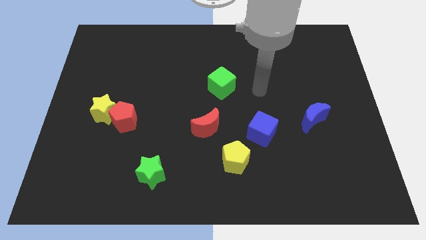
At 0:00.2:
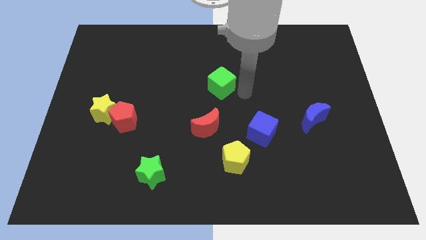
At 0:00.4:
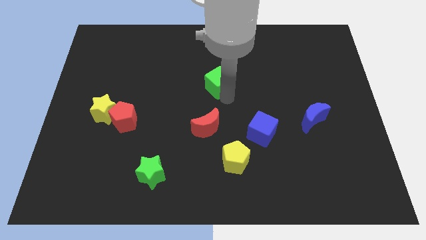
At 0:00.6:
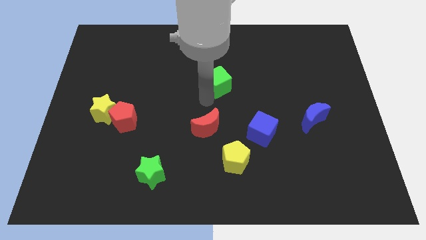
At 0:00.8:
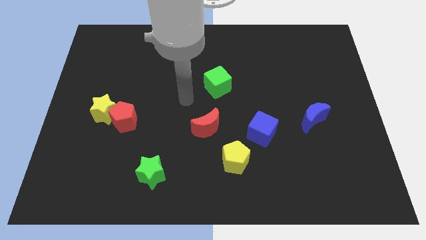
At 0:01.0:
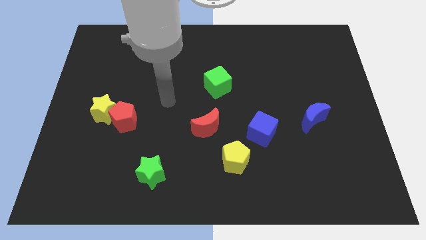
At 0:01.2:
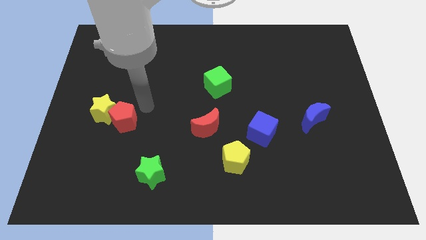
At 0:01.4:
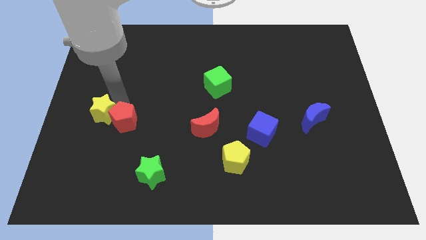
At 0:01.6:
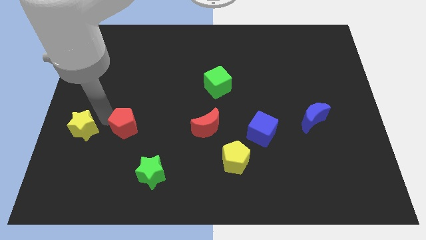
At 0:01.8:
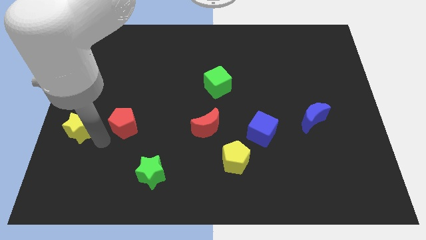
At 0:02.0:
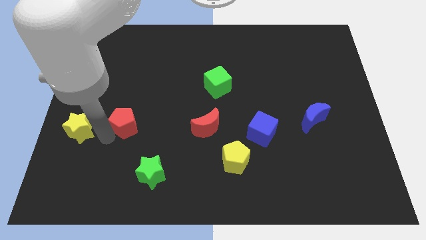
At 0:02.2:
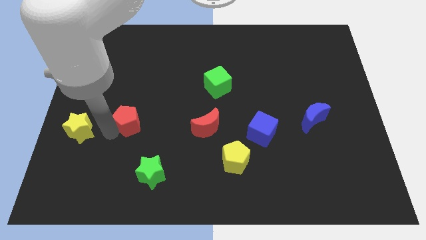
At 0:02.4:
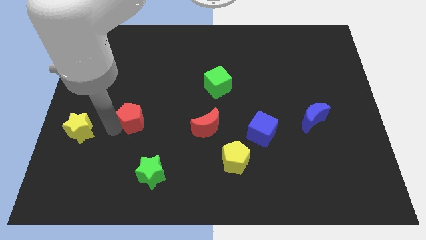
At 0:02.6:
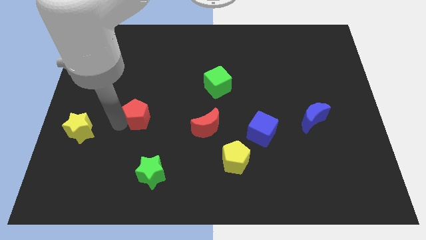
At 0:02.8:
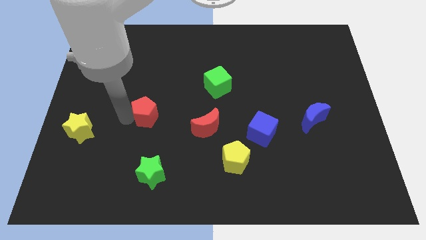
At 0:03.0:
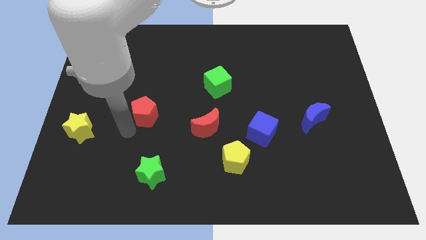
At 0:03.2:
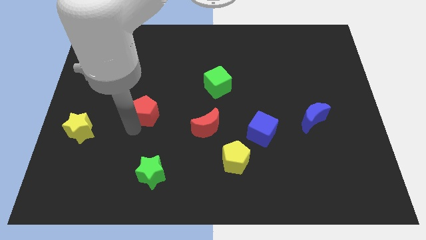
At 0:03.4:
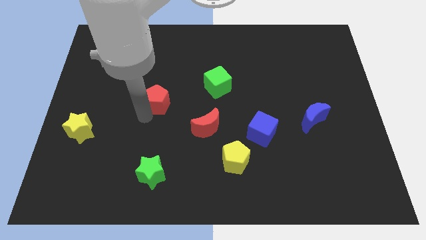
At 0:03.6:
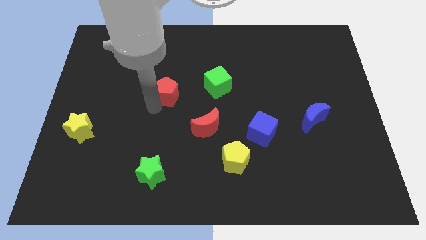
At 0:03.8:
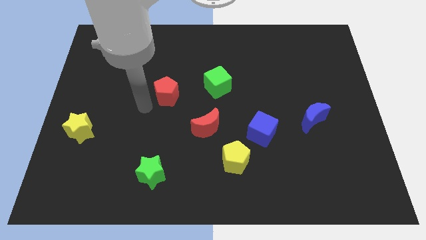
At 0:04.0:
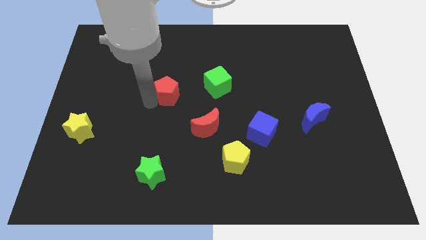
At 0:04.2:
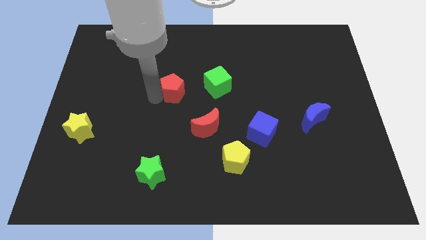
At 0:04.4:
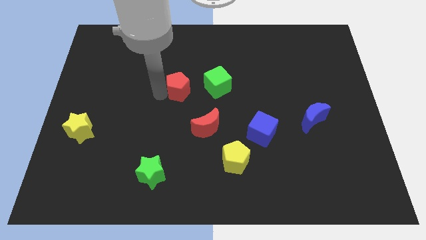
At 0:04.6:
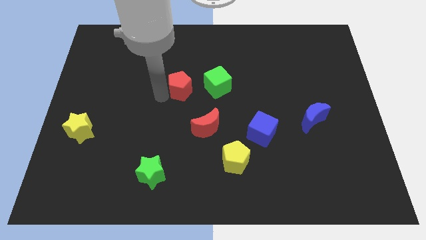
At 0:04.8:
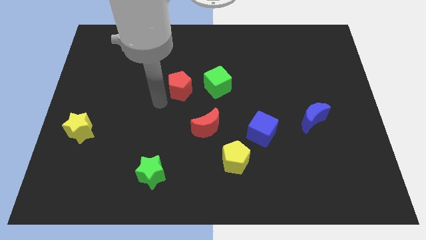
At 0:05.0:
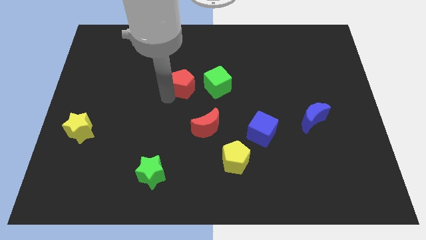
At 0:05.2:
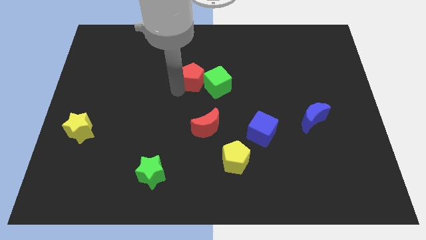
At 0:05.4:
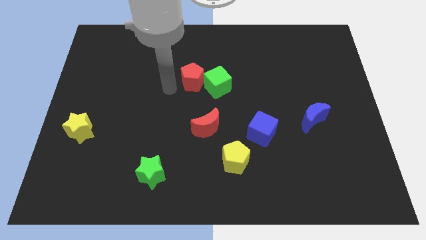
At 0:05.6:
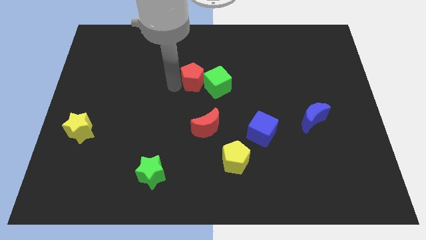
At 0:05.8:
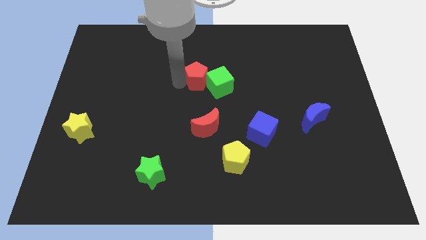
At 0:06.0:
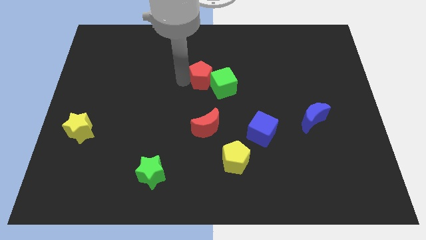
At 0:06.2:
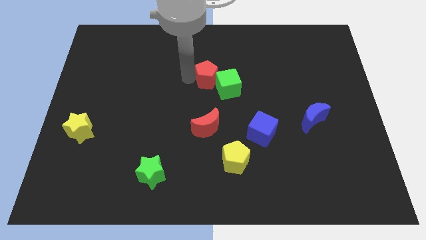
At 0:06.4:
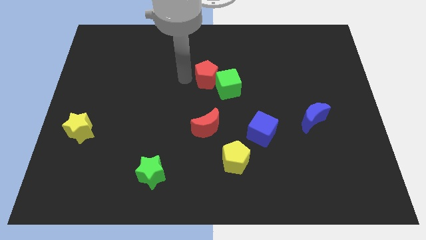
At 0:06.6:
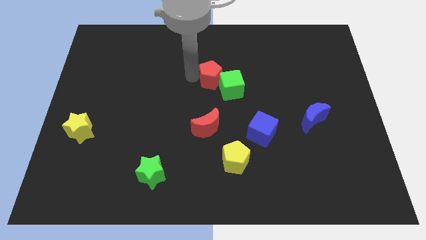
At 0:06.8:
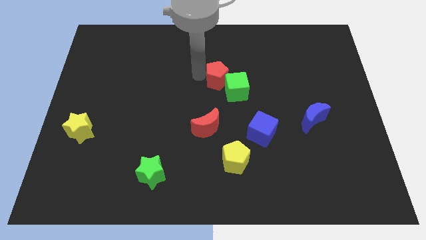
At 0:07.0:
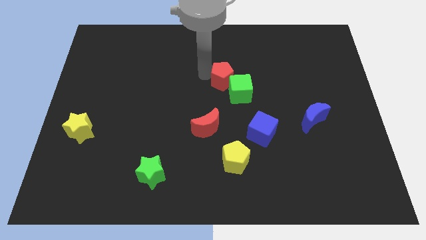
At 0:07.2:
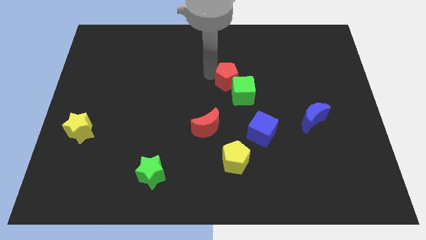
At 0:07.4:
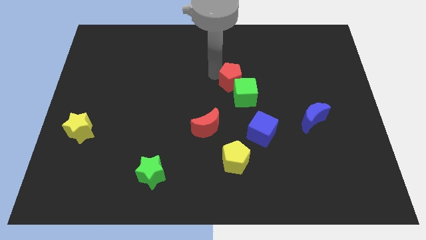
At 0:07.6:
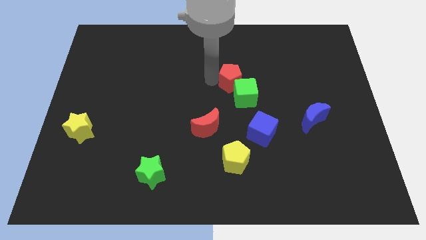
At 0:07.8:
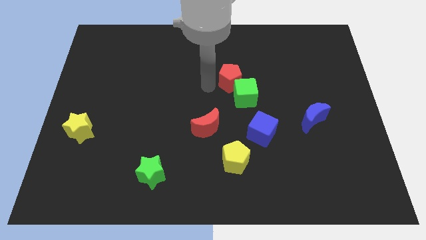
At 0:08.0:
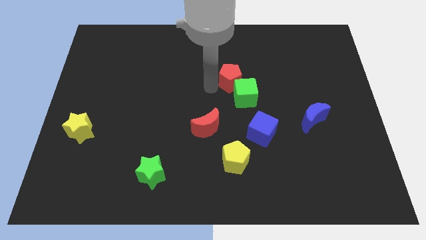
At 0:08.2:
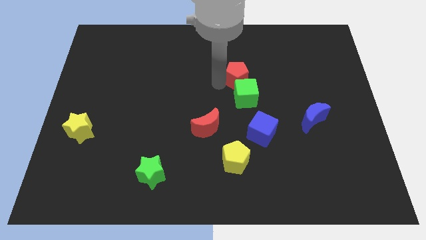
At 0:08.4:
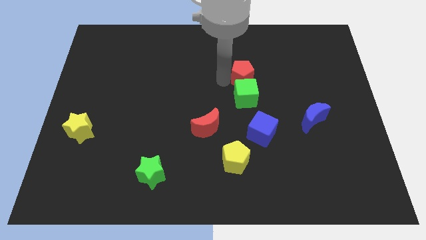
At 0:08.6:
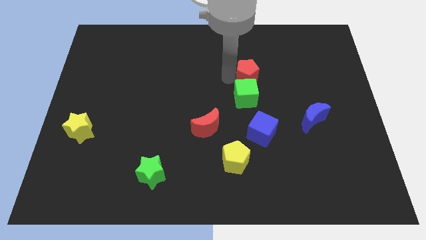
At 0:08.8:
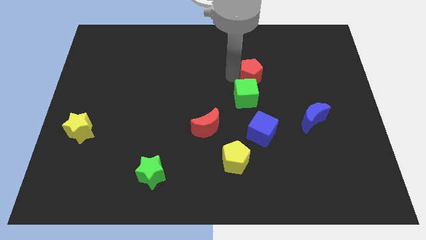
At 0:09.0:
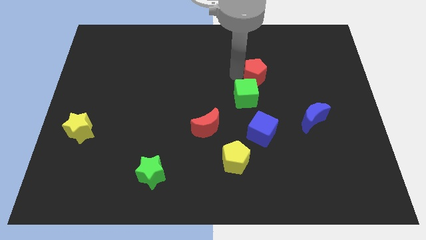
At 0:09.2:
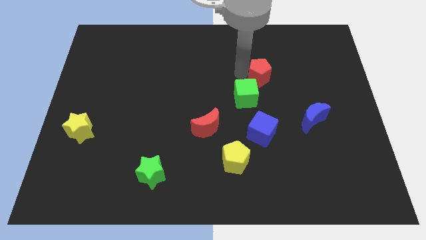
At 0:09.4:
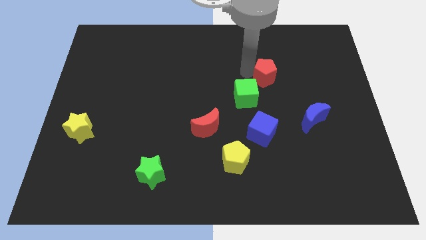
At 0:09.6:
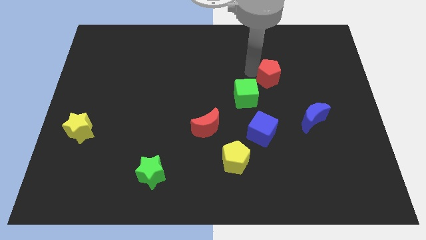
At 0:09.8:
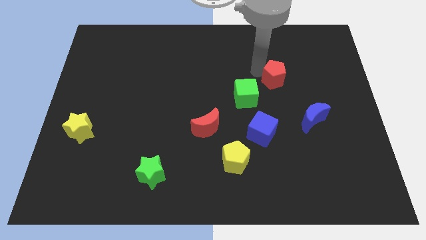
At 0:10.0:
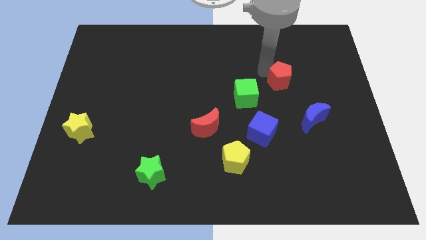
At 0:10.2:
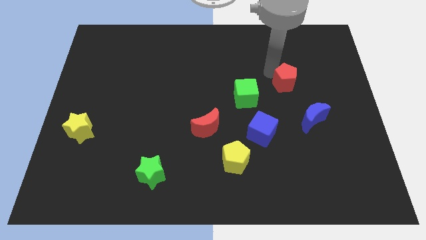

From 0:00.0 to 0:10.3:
move the red pentagon above the blue moon

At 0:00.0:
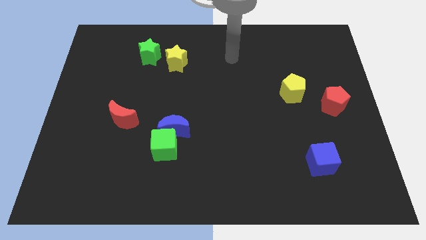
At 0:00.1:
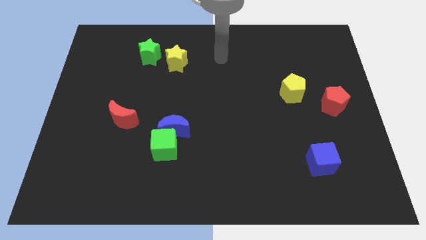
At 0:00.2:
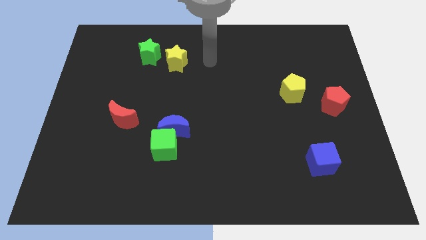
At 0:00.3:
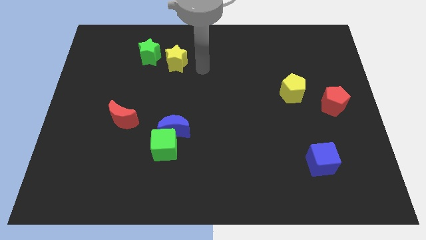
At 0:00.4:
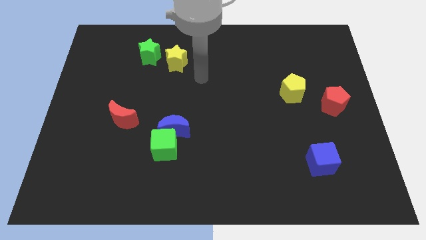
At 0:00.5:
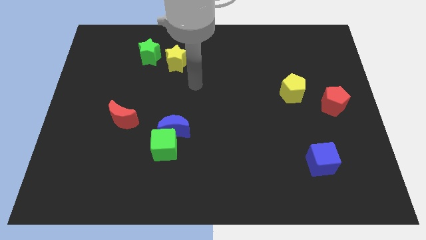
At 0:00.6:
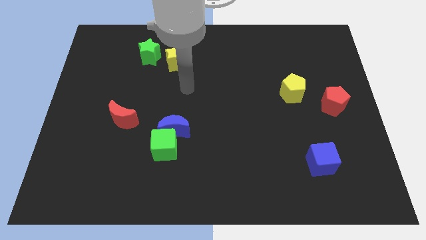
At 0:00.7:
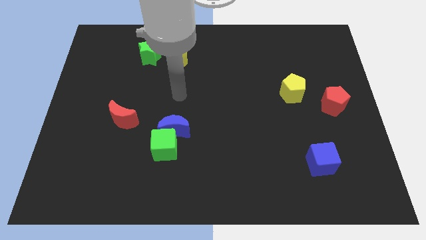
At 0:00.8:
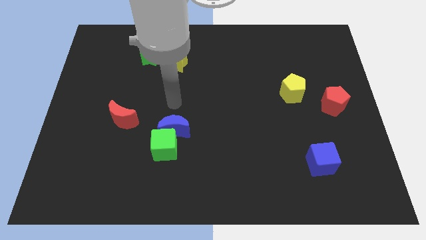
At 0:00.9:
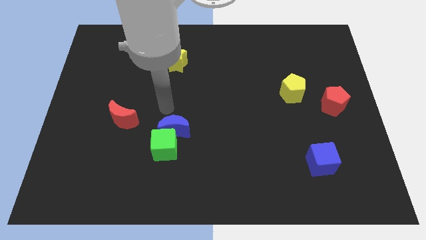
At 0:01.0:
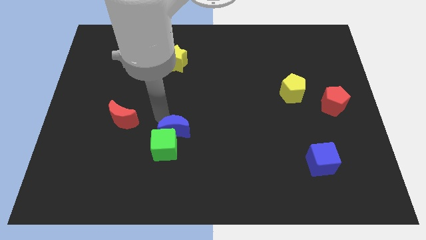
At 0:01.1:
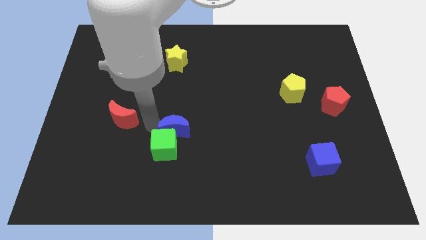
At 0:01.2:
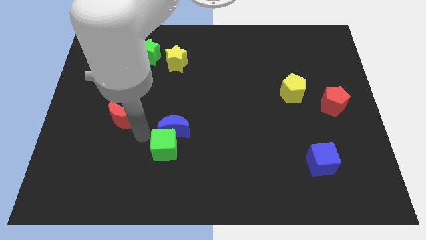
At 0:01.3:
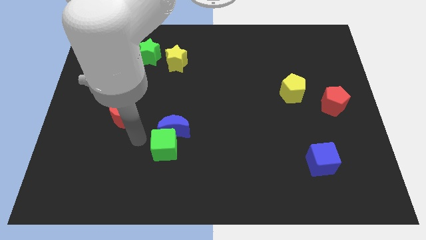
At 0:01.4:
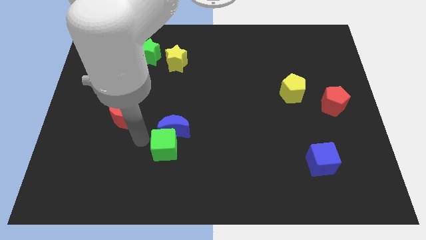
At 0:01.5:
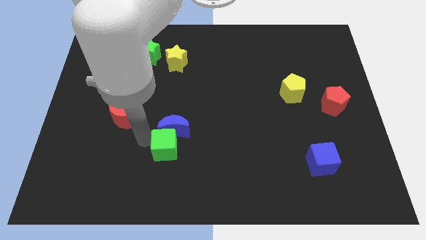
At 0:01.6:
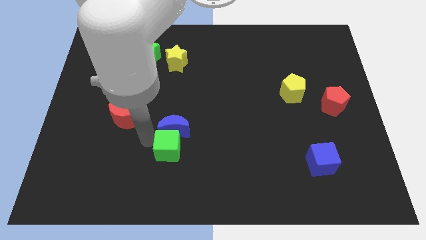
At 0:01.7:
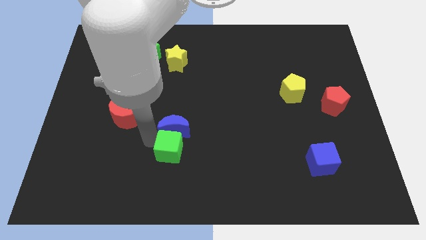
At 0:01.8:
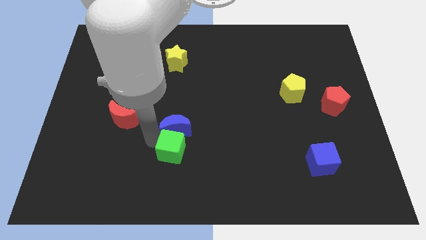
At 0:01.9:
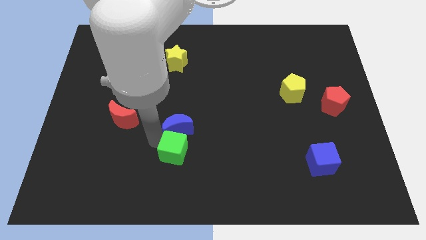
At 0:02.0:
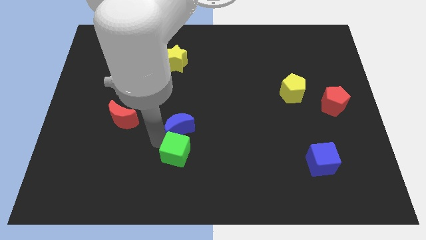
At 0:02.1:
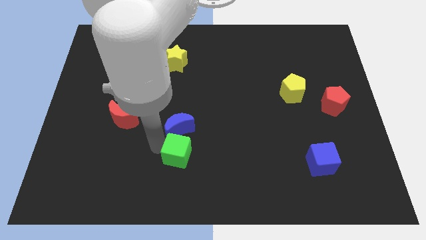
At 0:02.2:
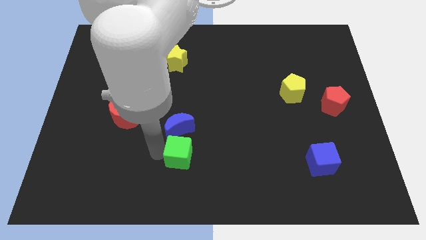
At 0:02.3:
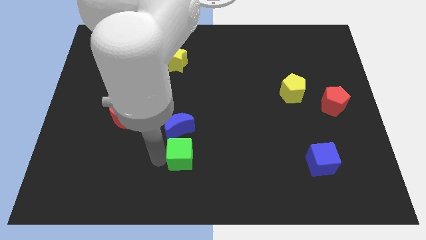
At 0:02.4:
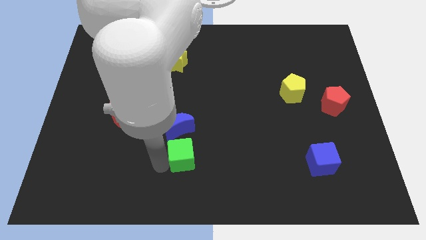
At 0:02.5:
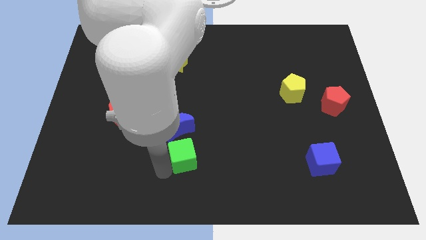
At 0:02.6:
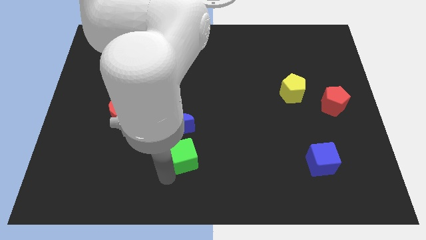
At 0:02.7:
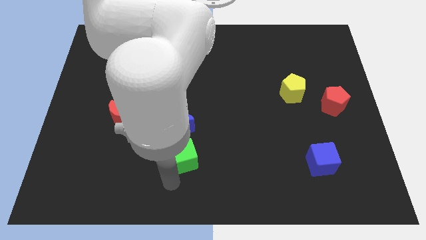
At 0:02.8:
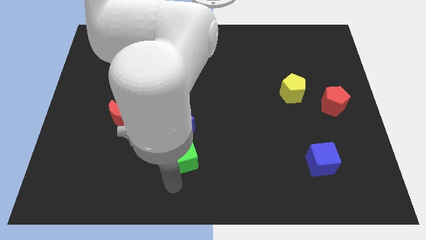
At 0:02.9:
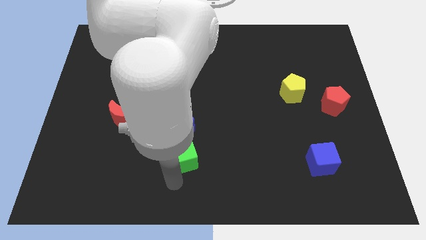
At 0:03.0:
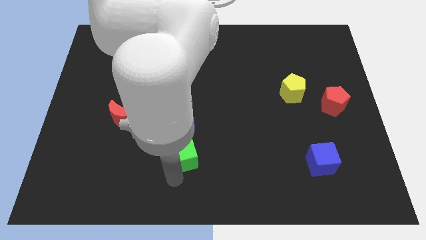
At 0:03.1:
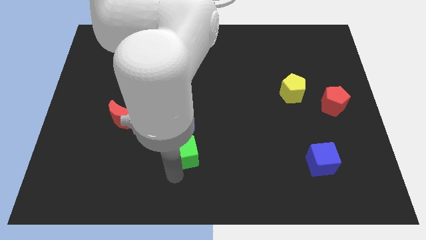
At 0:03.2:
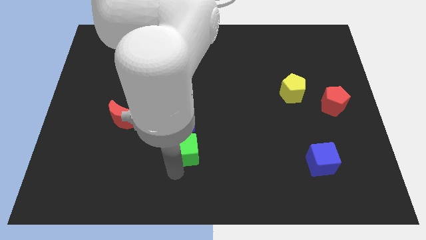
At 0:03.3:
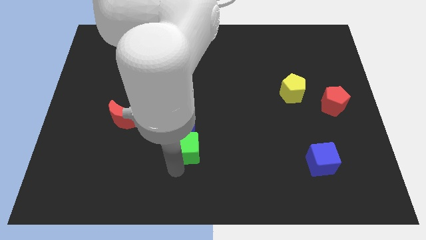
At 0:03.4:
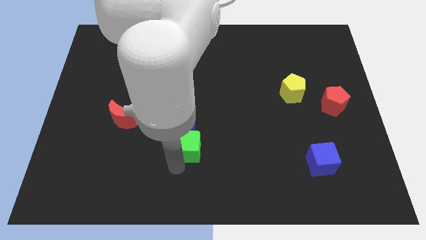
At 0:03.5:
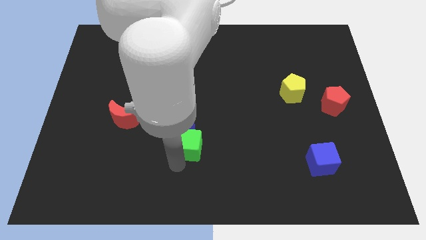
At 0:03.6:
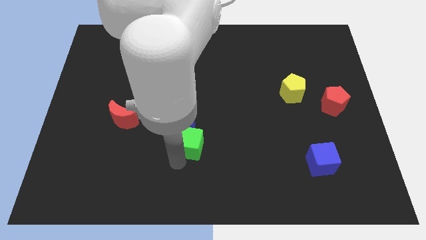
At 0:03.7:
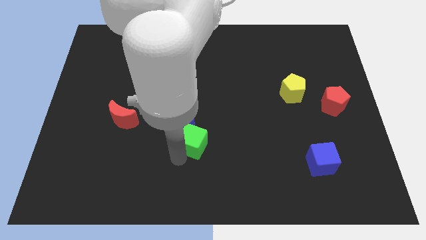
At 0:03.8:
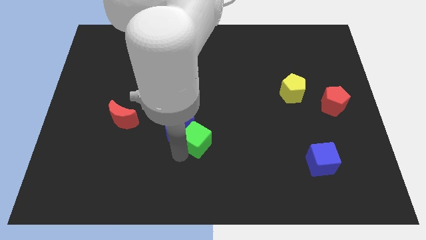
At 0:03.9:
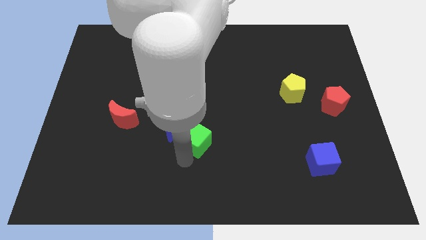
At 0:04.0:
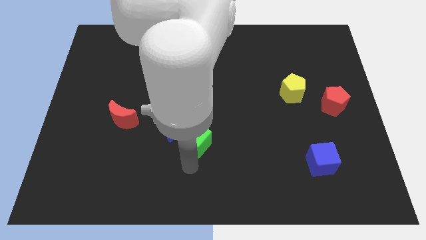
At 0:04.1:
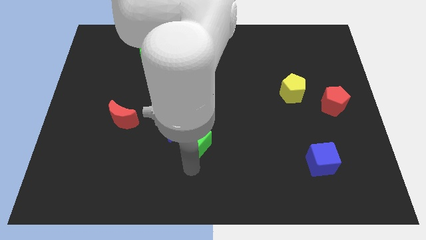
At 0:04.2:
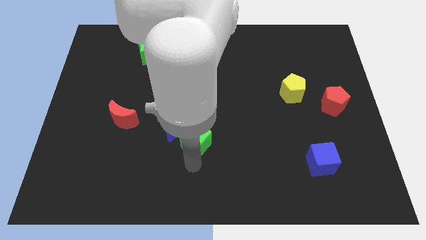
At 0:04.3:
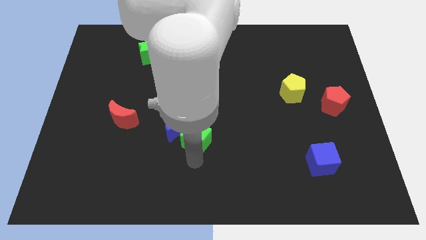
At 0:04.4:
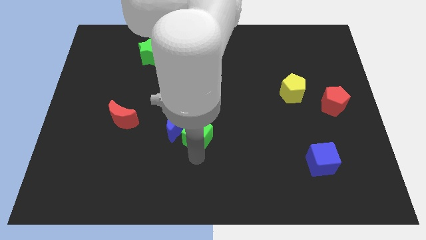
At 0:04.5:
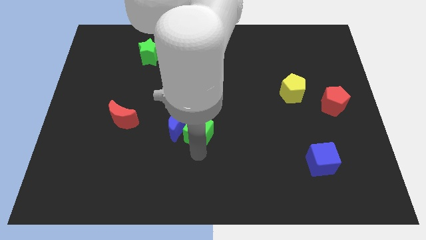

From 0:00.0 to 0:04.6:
move the green cube to the top right of the blue moon
